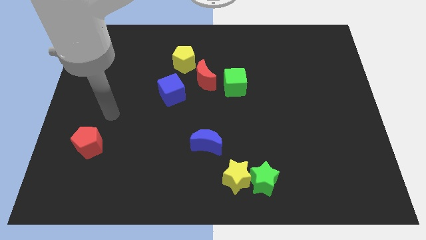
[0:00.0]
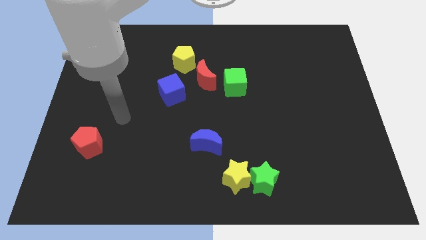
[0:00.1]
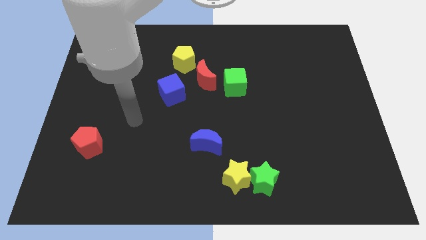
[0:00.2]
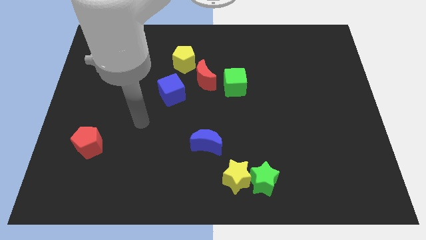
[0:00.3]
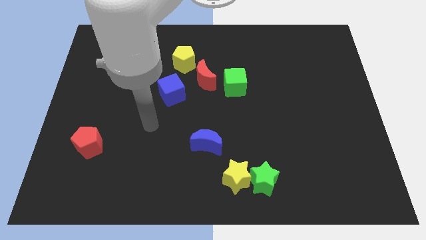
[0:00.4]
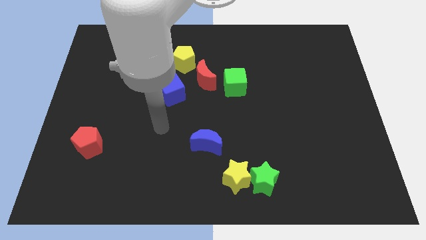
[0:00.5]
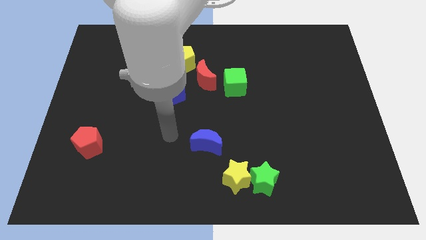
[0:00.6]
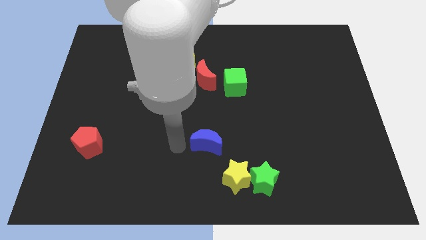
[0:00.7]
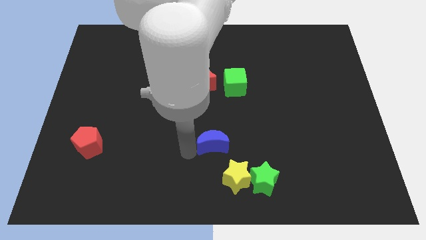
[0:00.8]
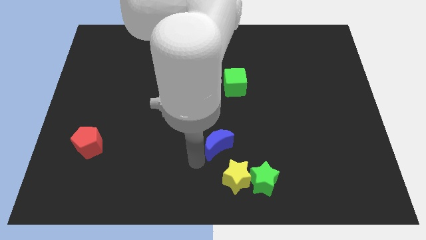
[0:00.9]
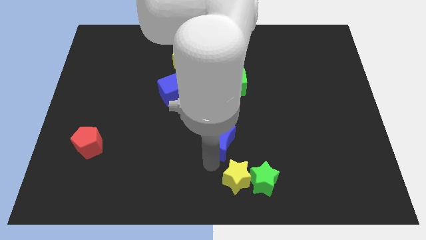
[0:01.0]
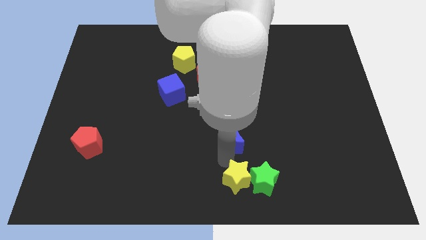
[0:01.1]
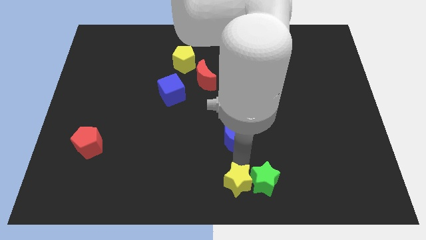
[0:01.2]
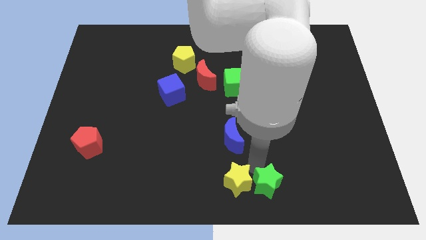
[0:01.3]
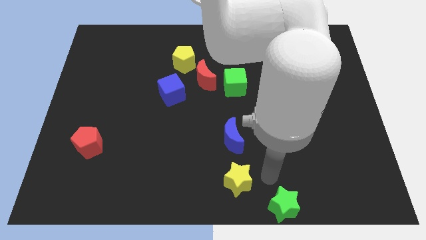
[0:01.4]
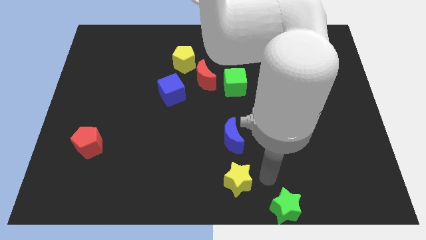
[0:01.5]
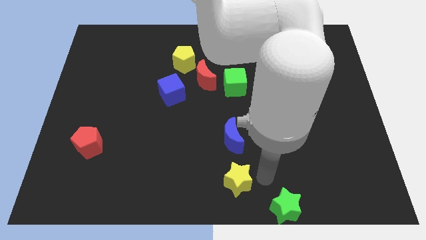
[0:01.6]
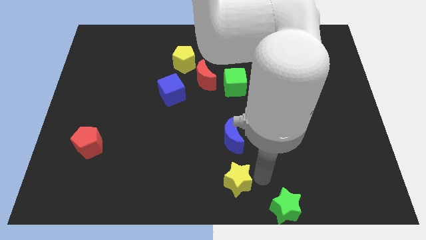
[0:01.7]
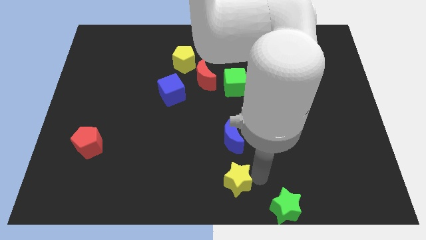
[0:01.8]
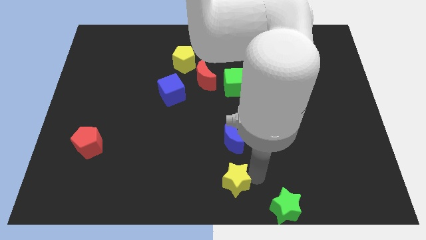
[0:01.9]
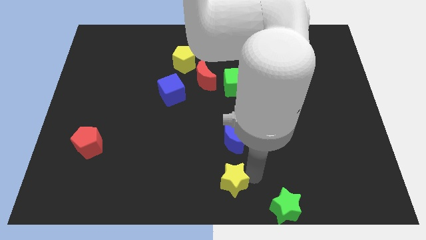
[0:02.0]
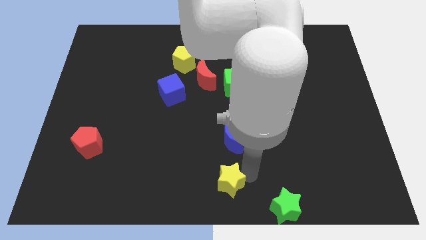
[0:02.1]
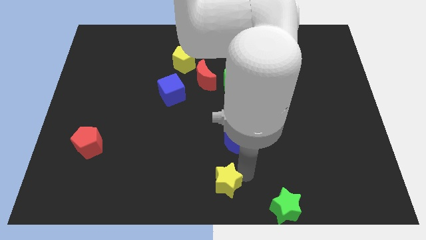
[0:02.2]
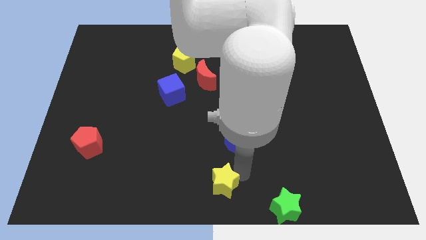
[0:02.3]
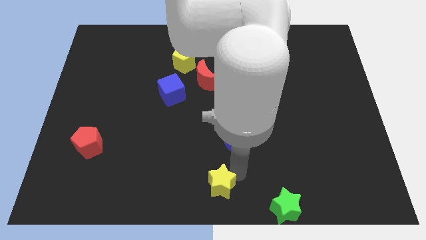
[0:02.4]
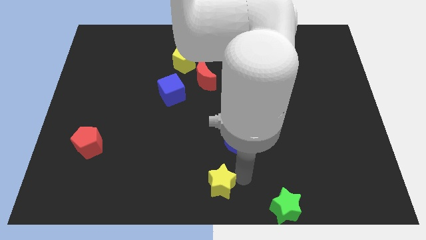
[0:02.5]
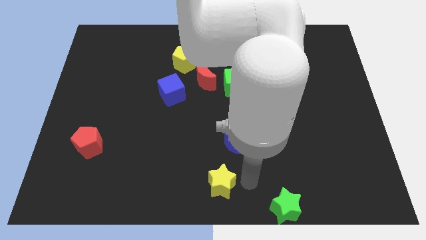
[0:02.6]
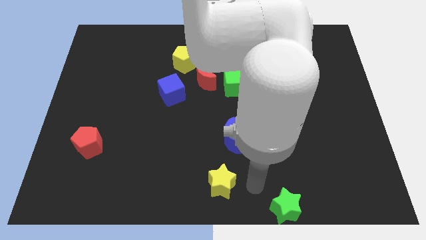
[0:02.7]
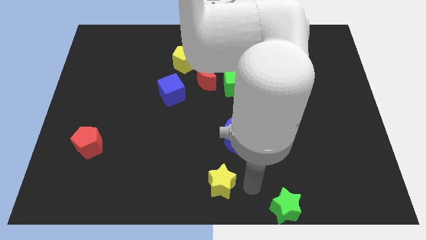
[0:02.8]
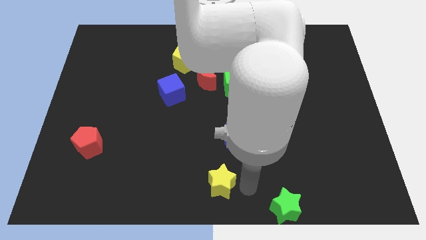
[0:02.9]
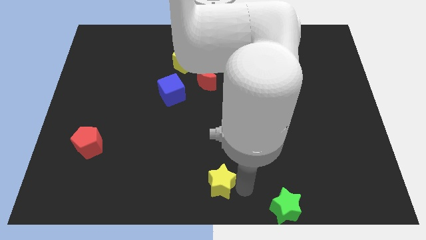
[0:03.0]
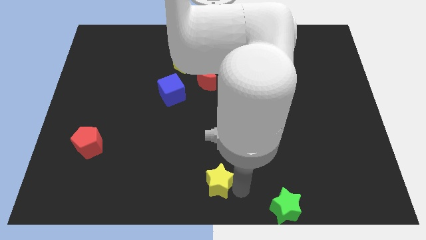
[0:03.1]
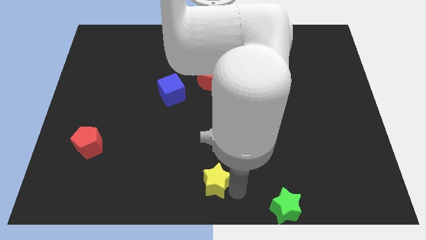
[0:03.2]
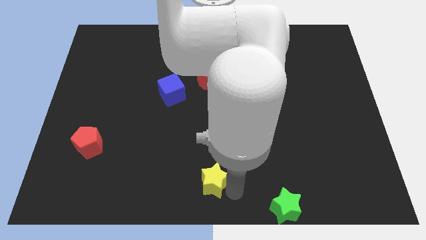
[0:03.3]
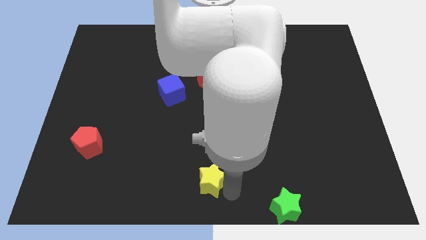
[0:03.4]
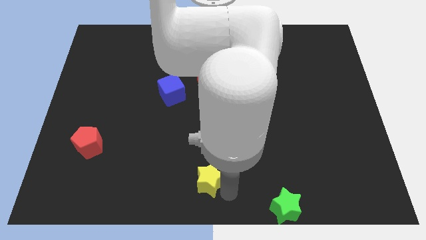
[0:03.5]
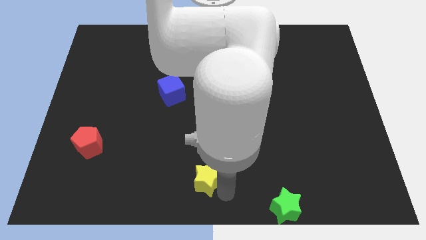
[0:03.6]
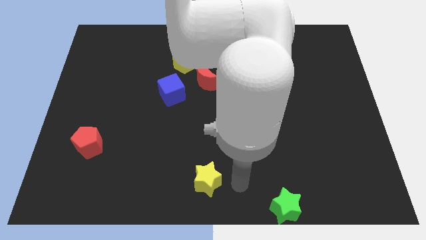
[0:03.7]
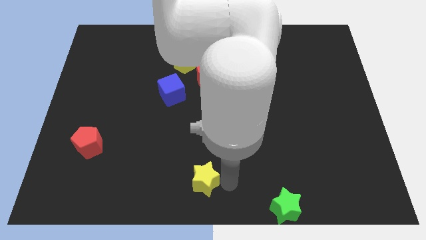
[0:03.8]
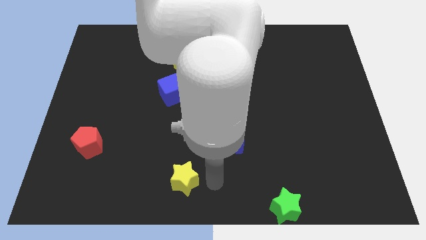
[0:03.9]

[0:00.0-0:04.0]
move the yellow star a little to the left

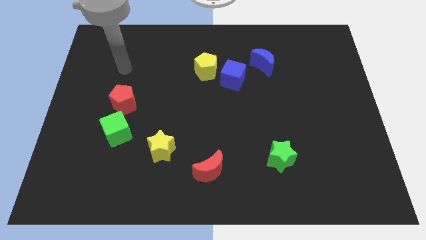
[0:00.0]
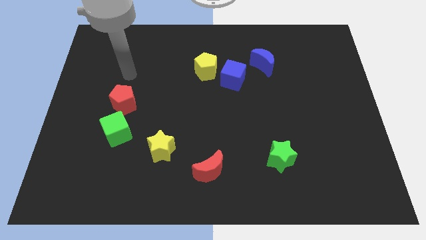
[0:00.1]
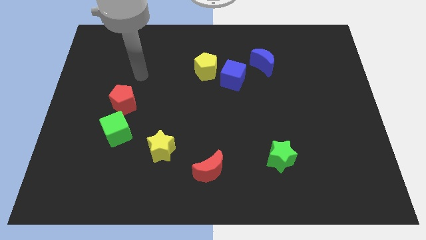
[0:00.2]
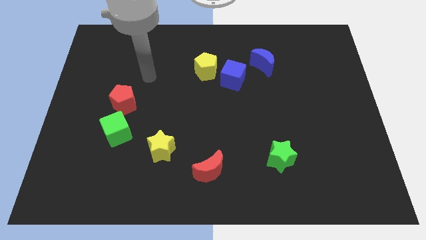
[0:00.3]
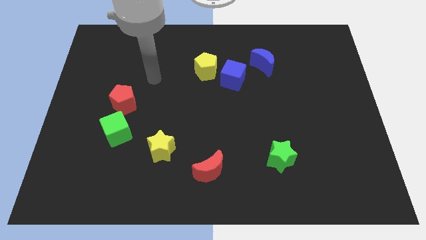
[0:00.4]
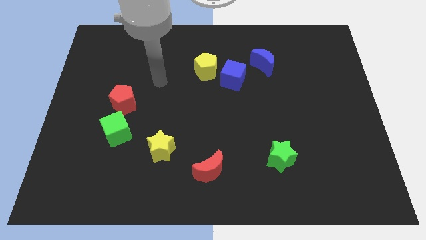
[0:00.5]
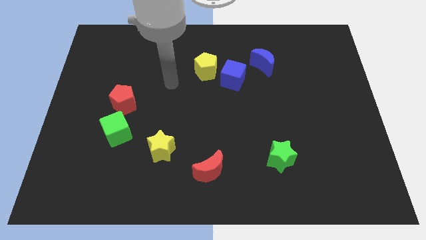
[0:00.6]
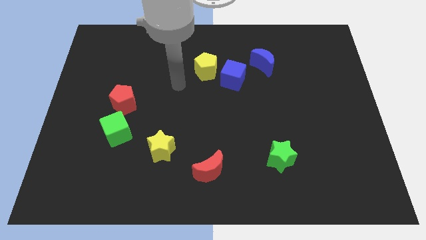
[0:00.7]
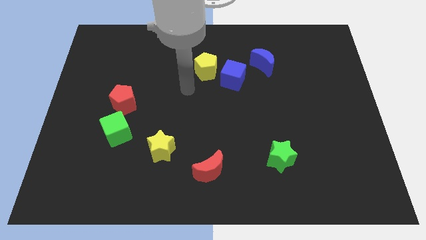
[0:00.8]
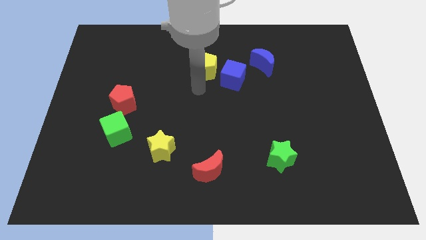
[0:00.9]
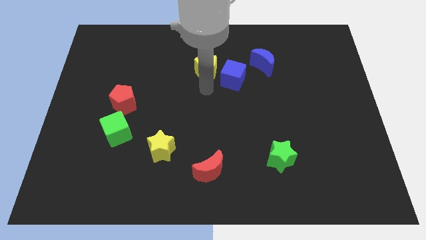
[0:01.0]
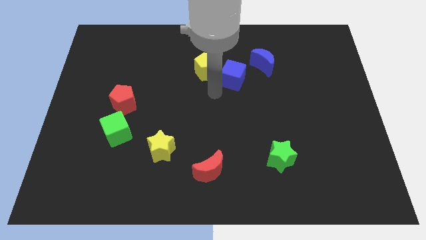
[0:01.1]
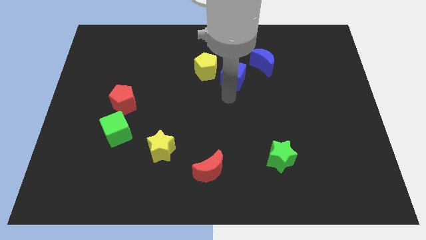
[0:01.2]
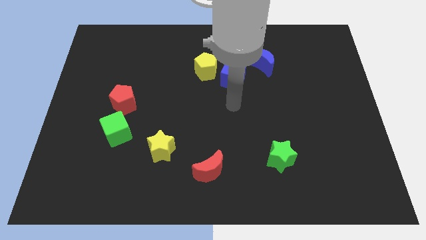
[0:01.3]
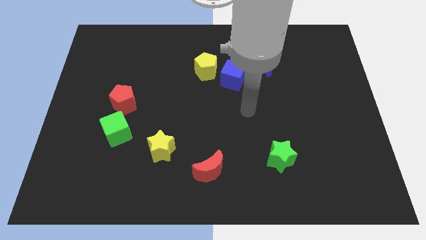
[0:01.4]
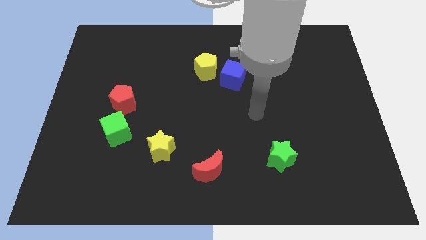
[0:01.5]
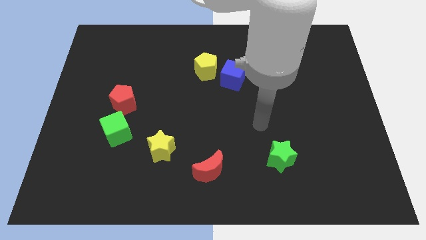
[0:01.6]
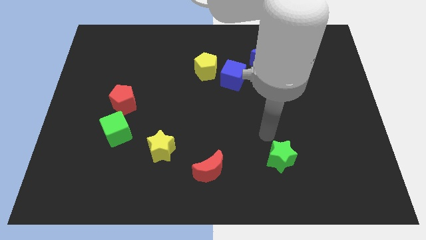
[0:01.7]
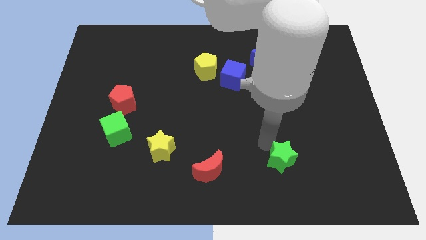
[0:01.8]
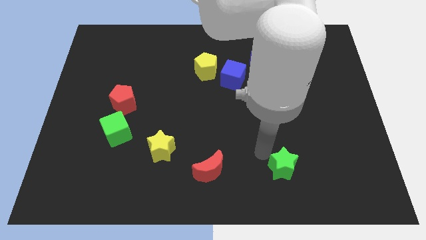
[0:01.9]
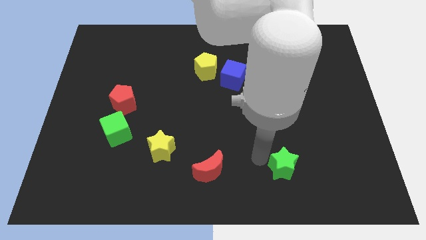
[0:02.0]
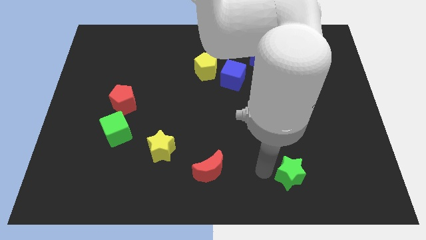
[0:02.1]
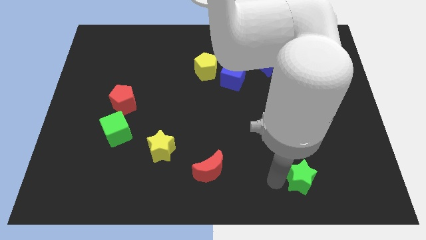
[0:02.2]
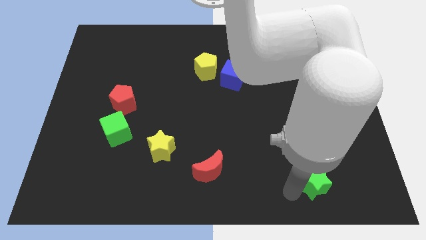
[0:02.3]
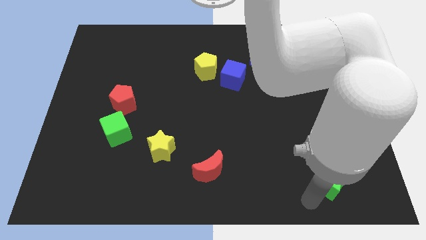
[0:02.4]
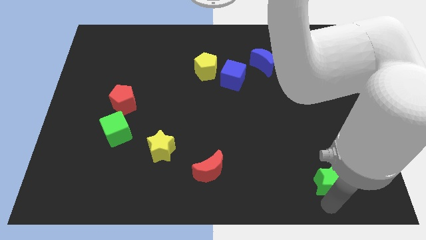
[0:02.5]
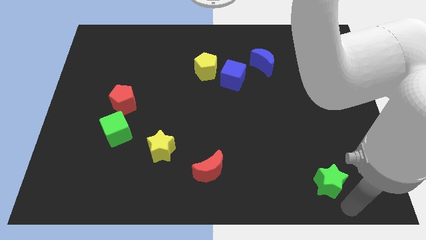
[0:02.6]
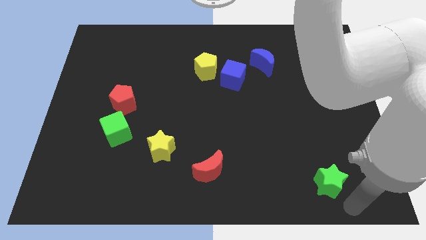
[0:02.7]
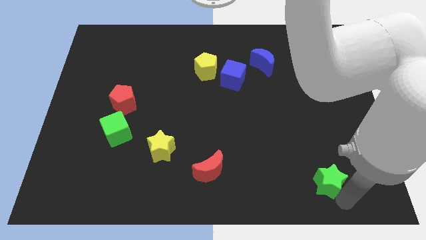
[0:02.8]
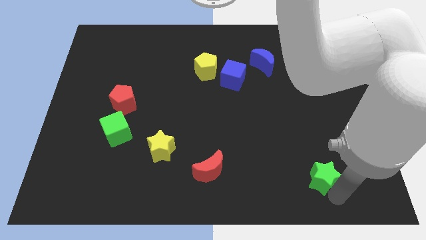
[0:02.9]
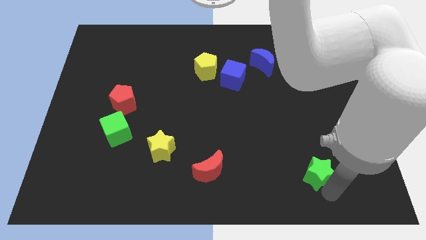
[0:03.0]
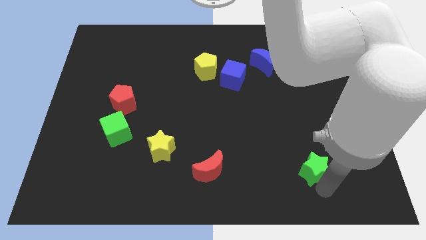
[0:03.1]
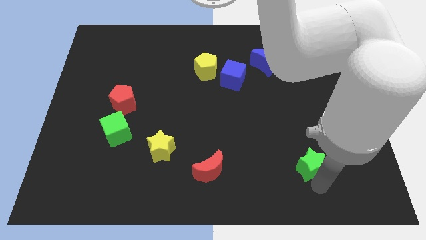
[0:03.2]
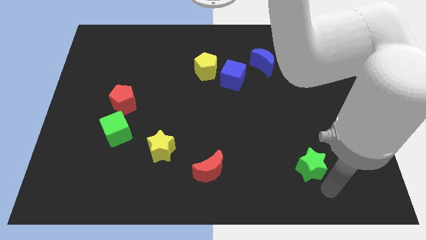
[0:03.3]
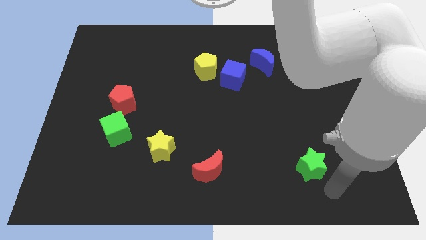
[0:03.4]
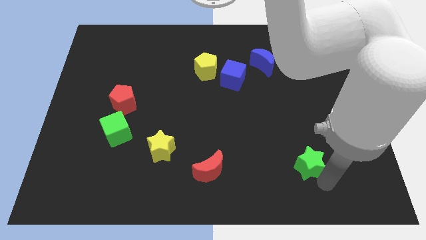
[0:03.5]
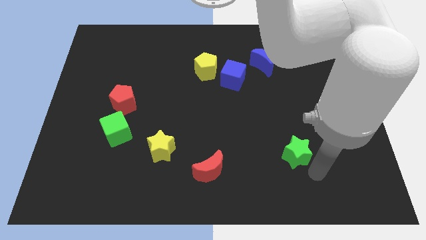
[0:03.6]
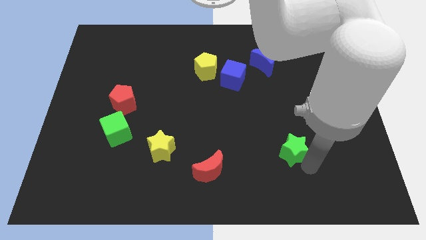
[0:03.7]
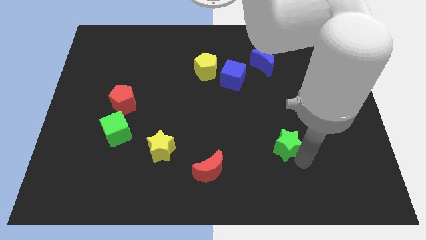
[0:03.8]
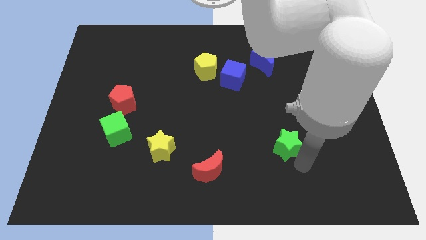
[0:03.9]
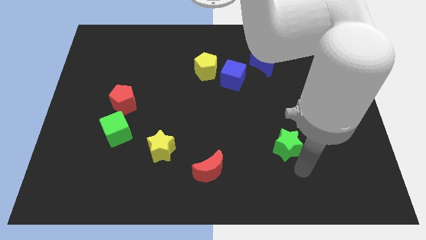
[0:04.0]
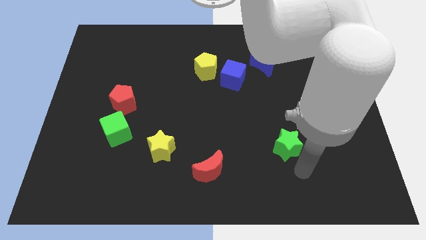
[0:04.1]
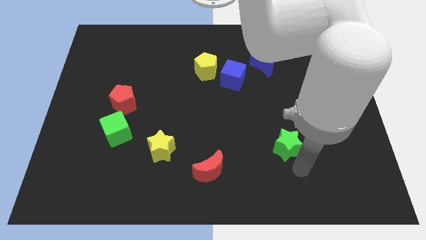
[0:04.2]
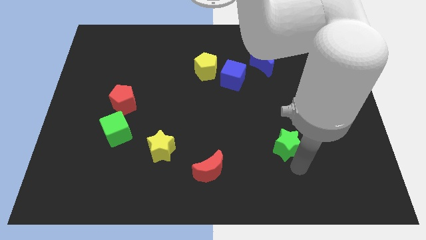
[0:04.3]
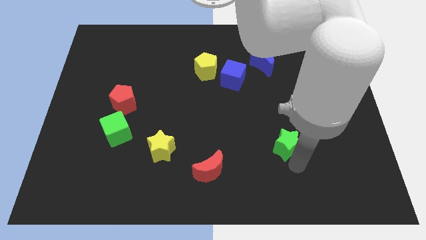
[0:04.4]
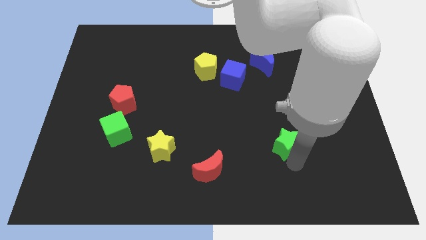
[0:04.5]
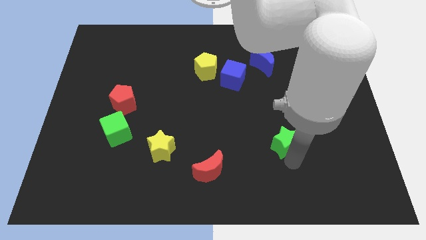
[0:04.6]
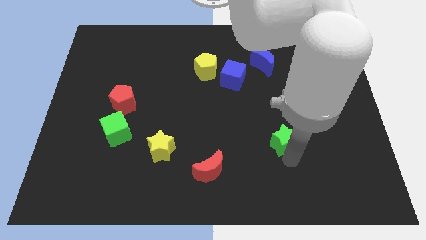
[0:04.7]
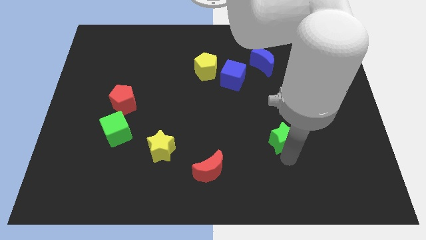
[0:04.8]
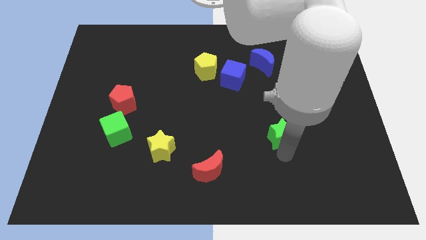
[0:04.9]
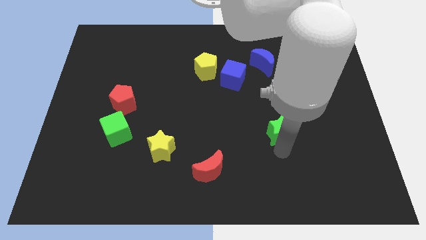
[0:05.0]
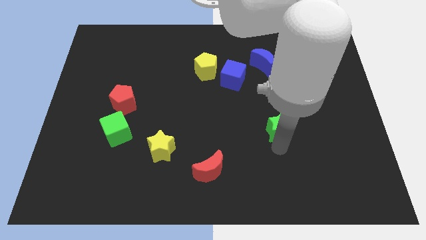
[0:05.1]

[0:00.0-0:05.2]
slightly slide the green star upwards
